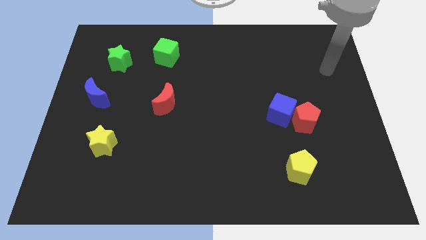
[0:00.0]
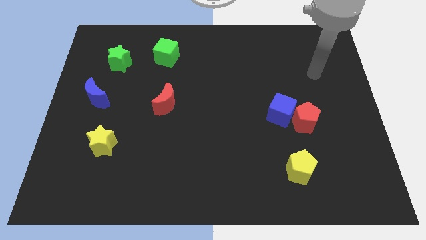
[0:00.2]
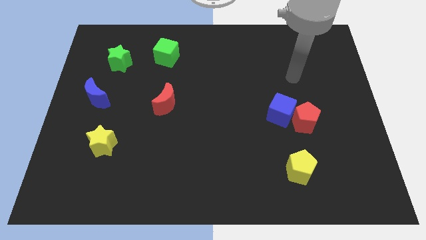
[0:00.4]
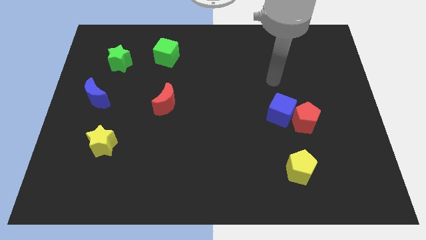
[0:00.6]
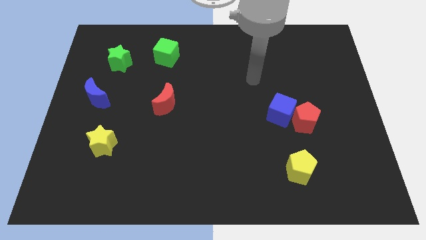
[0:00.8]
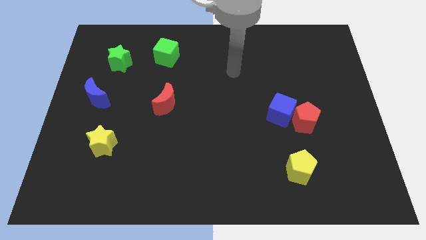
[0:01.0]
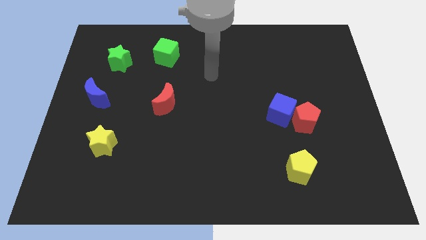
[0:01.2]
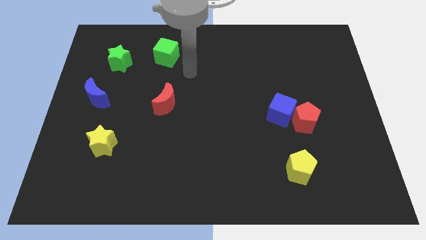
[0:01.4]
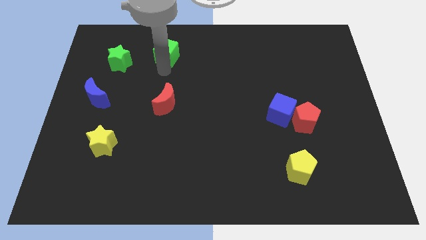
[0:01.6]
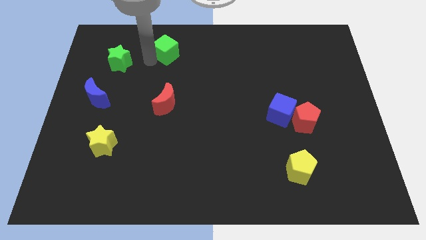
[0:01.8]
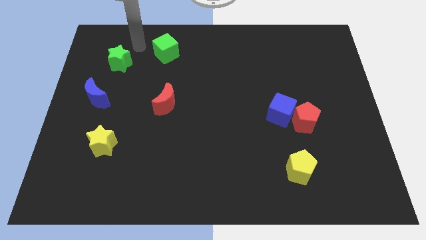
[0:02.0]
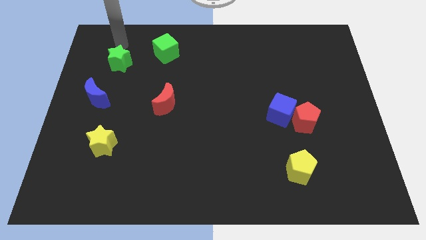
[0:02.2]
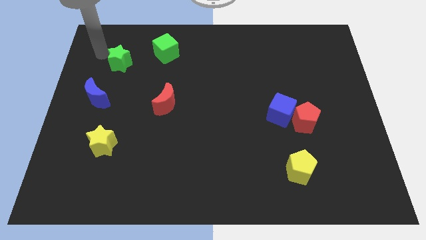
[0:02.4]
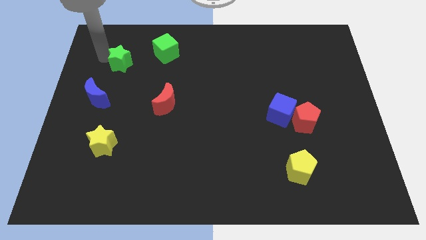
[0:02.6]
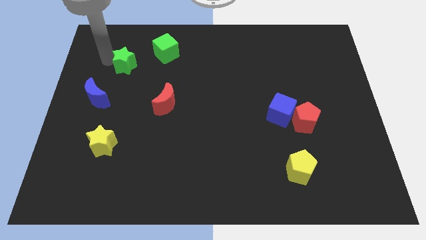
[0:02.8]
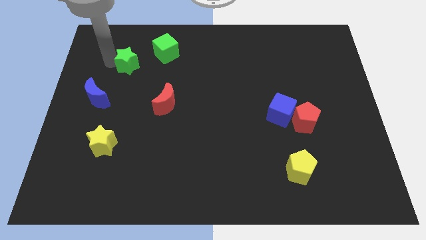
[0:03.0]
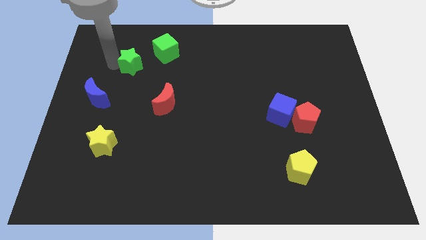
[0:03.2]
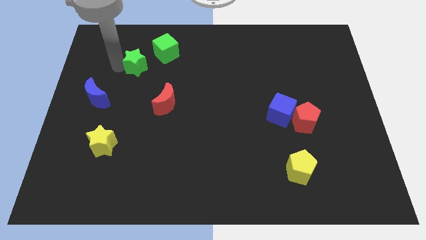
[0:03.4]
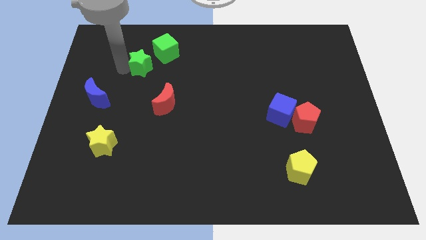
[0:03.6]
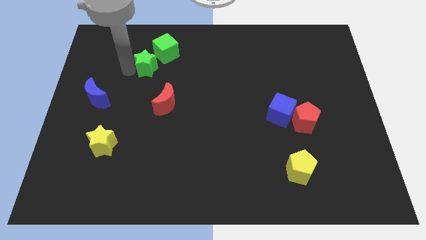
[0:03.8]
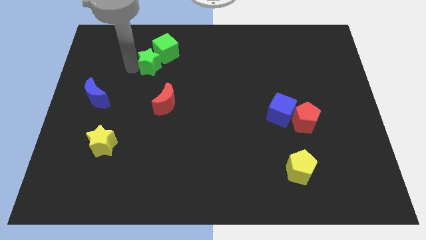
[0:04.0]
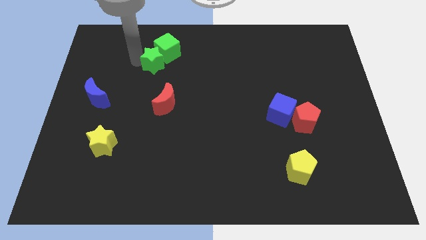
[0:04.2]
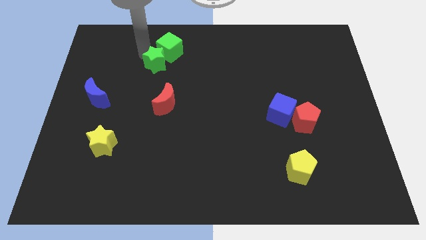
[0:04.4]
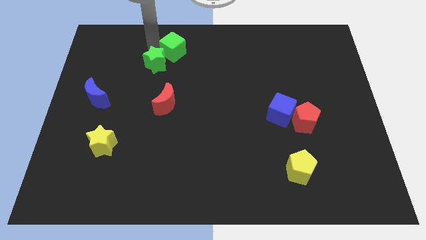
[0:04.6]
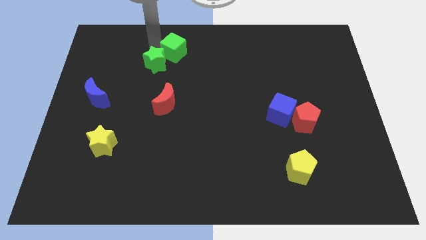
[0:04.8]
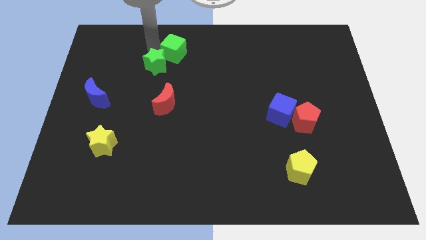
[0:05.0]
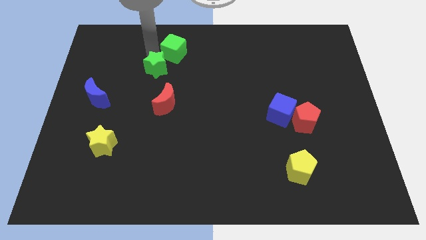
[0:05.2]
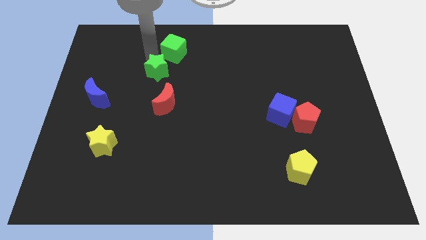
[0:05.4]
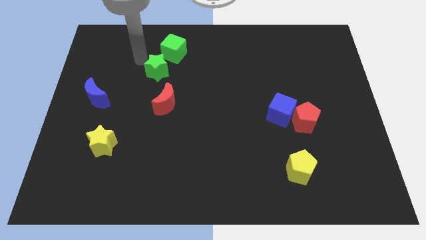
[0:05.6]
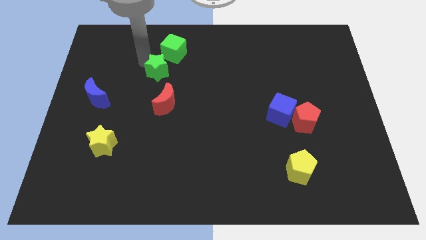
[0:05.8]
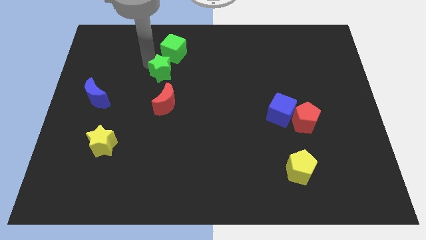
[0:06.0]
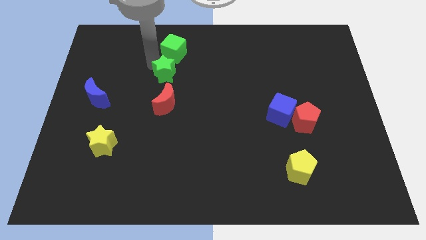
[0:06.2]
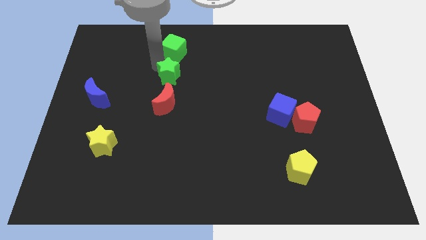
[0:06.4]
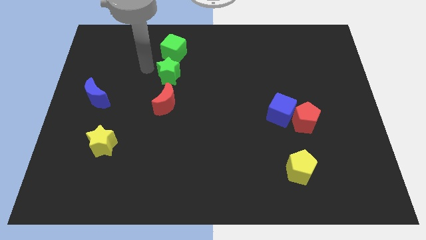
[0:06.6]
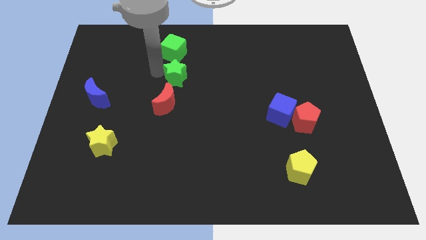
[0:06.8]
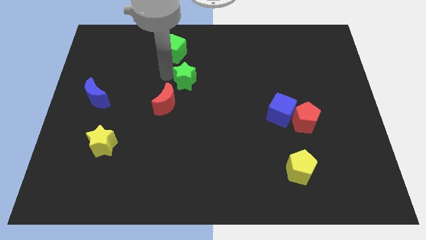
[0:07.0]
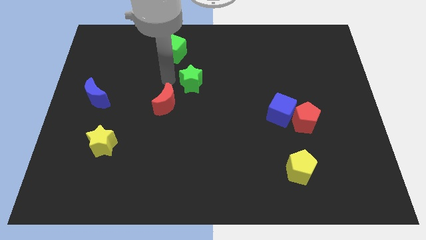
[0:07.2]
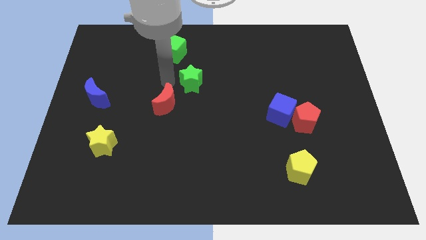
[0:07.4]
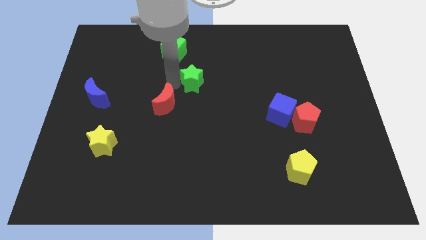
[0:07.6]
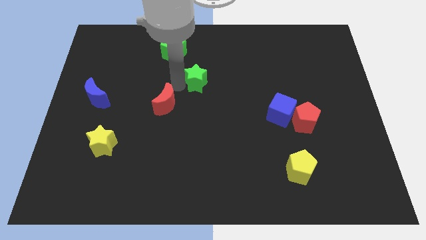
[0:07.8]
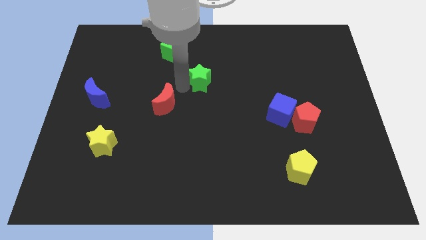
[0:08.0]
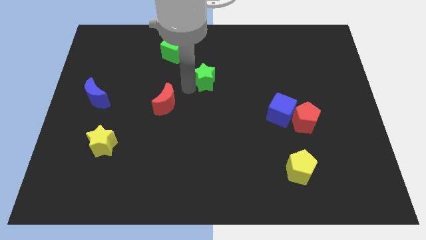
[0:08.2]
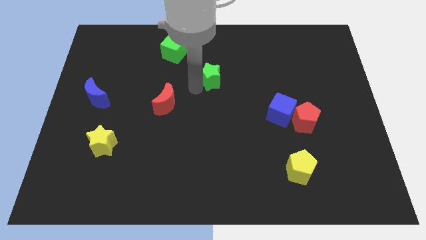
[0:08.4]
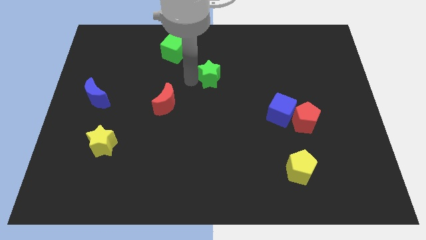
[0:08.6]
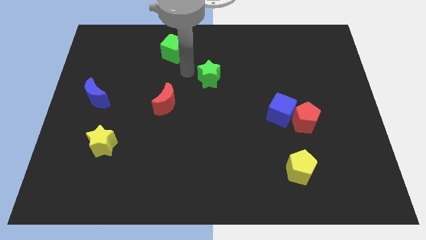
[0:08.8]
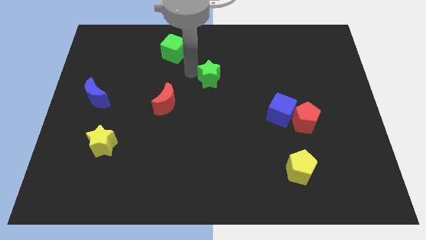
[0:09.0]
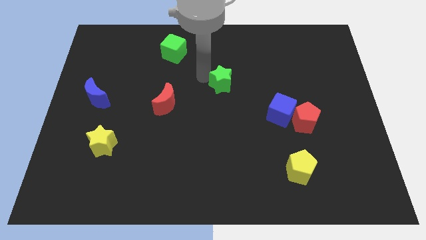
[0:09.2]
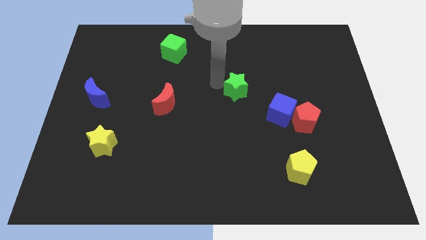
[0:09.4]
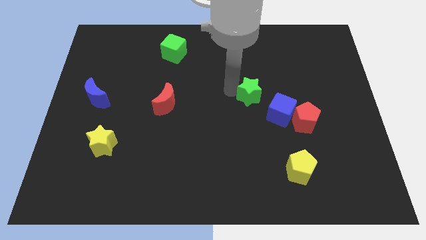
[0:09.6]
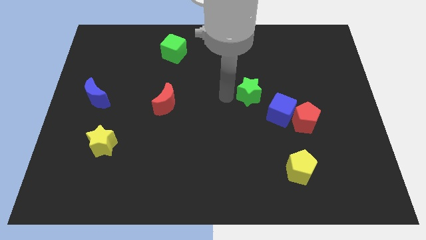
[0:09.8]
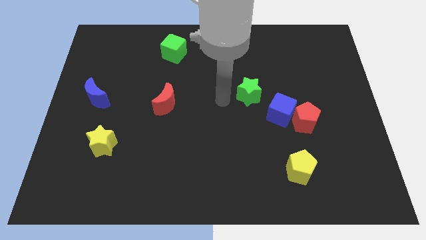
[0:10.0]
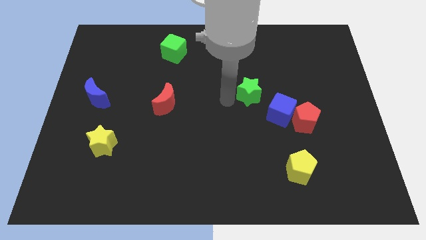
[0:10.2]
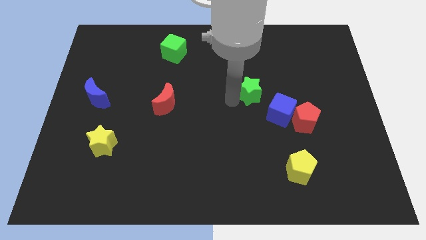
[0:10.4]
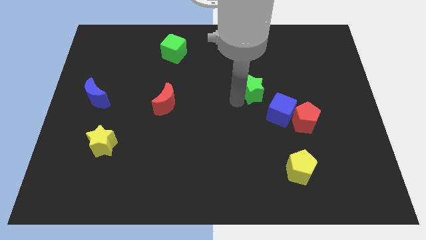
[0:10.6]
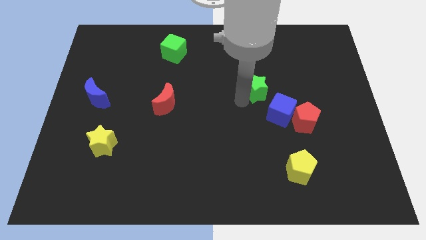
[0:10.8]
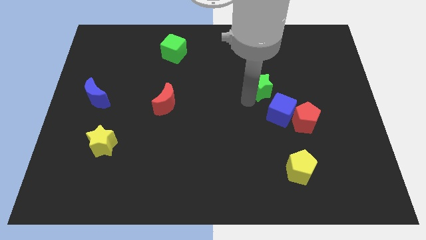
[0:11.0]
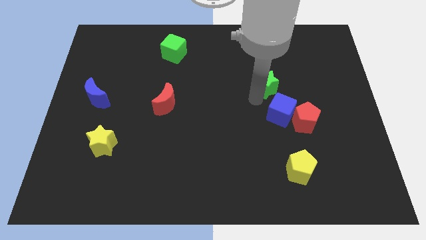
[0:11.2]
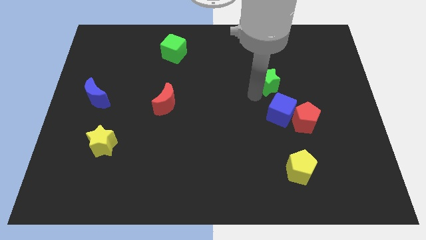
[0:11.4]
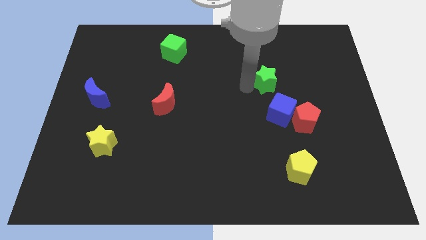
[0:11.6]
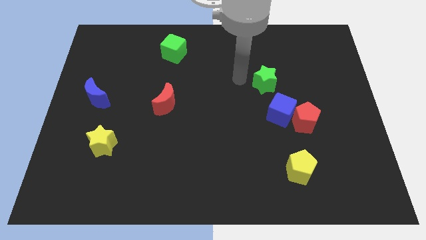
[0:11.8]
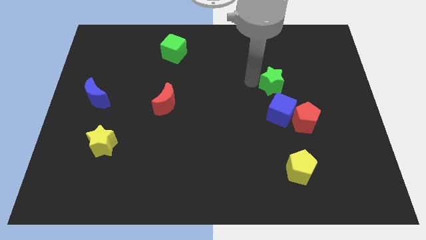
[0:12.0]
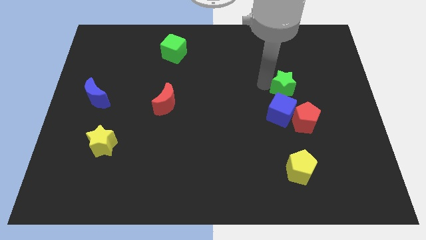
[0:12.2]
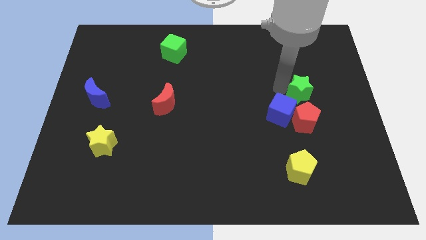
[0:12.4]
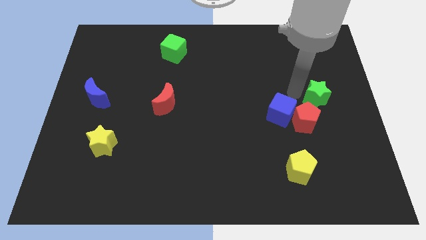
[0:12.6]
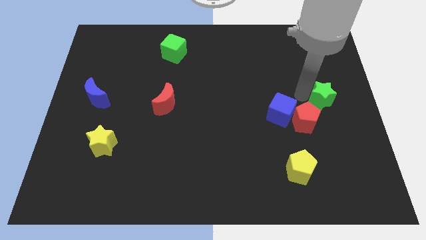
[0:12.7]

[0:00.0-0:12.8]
put the green star to the right side of the board
